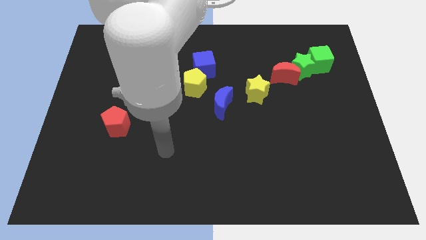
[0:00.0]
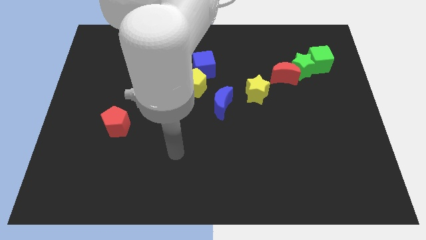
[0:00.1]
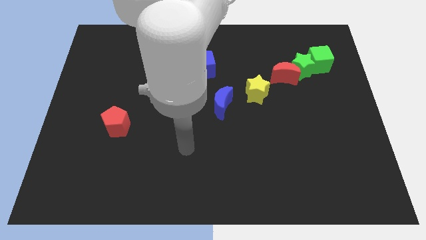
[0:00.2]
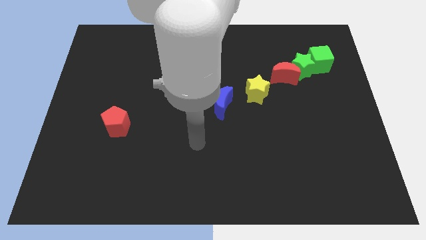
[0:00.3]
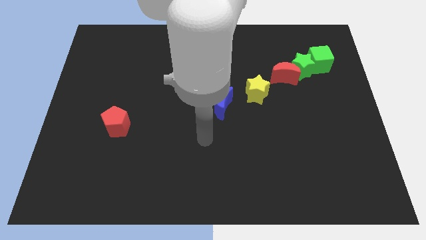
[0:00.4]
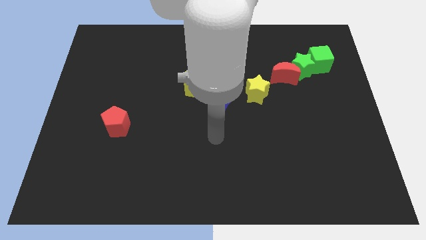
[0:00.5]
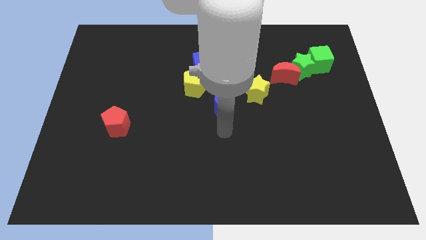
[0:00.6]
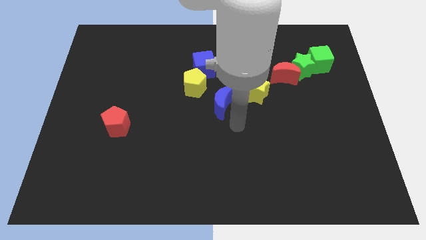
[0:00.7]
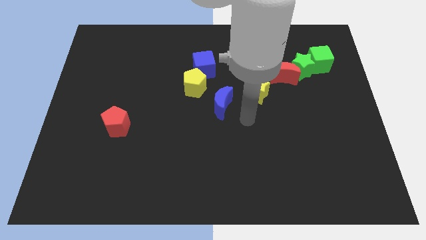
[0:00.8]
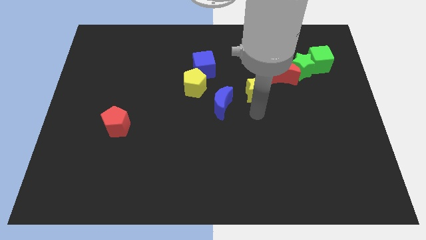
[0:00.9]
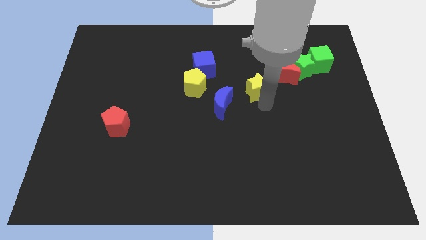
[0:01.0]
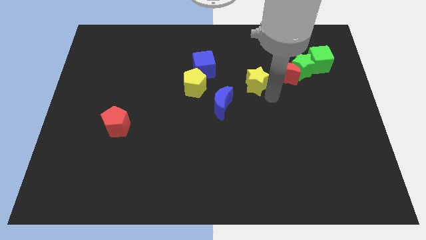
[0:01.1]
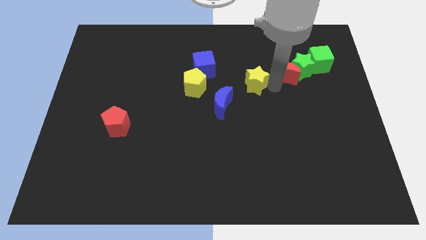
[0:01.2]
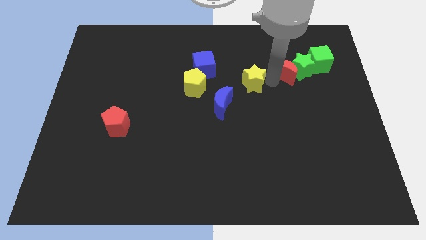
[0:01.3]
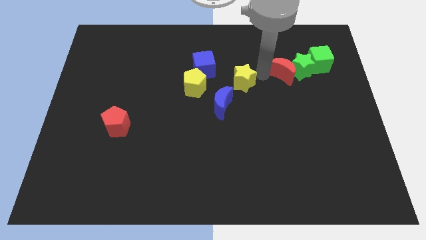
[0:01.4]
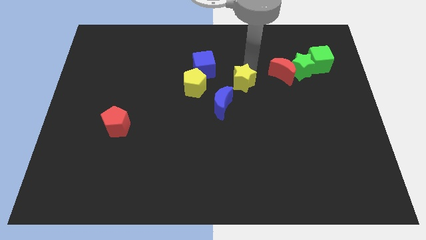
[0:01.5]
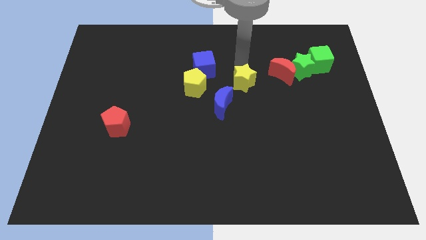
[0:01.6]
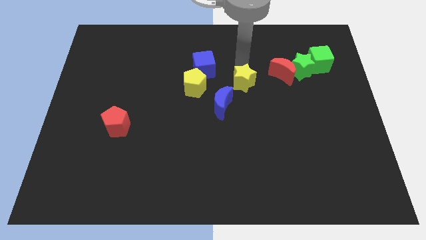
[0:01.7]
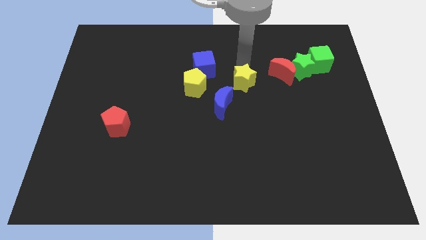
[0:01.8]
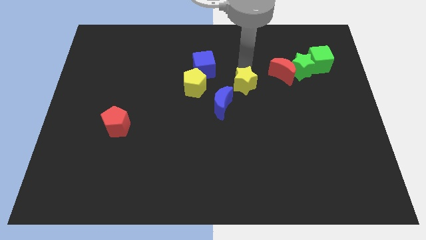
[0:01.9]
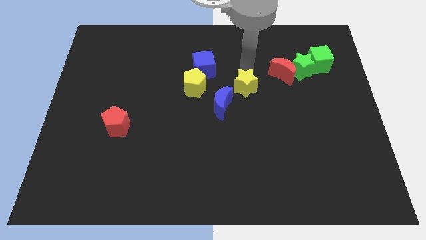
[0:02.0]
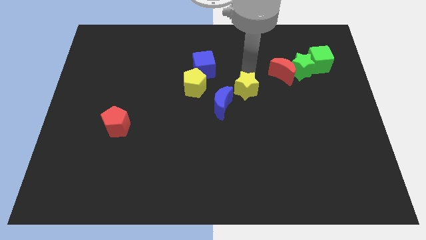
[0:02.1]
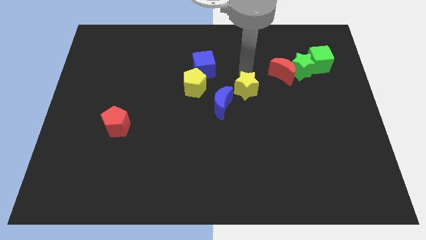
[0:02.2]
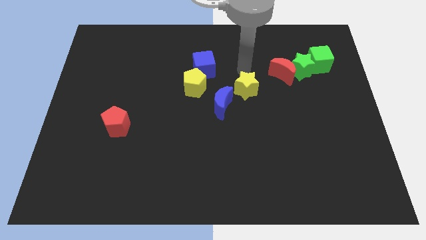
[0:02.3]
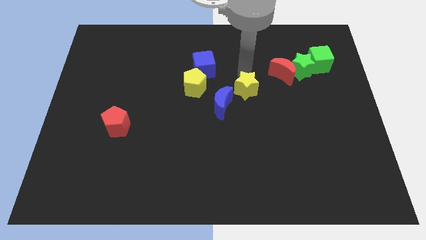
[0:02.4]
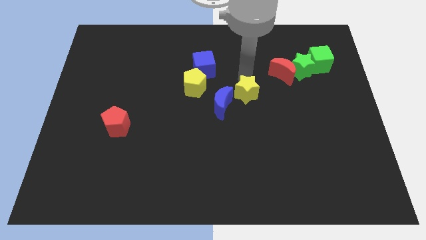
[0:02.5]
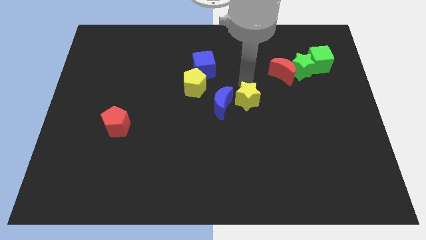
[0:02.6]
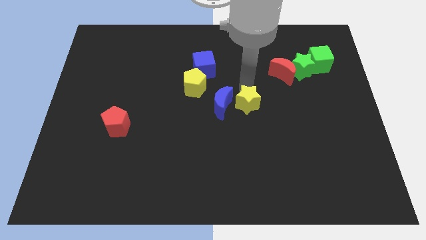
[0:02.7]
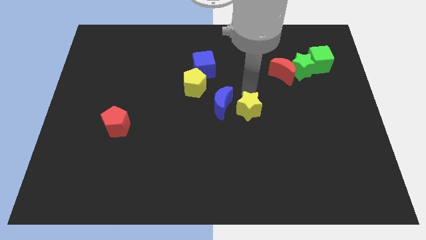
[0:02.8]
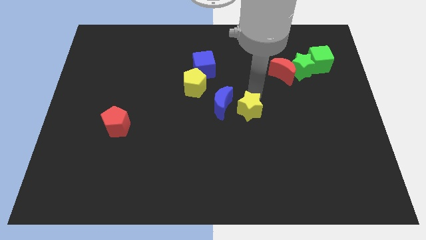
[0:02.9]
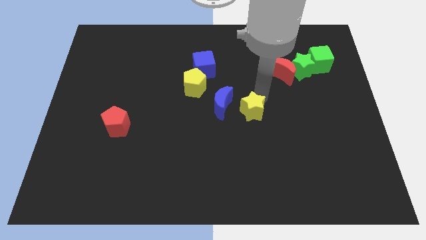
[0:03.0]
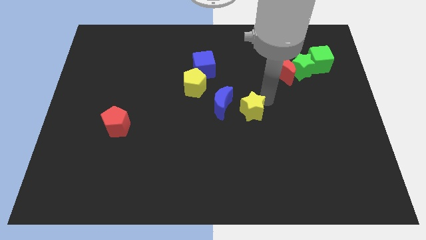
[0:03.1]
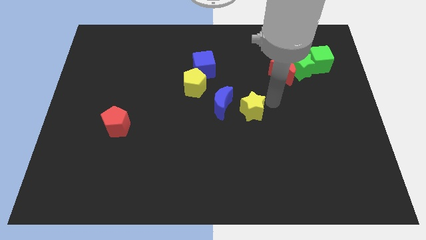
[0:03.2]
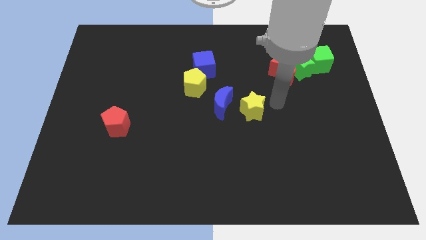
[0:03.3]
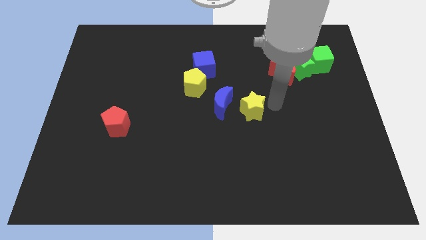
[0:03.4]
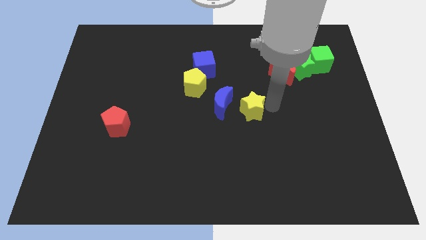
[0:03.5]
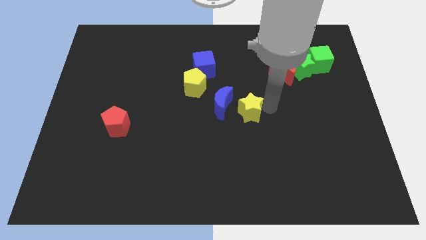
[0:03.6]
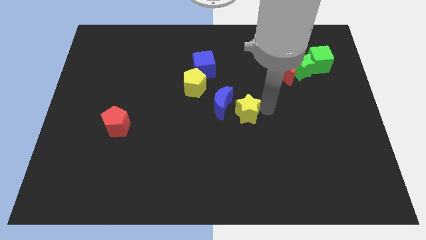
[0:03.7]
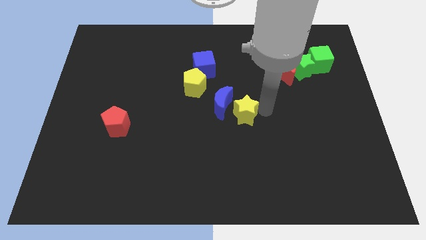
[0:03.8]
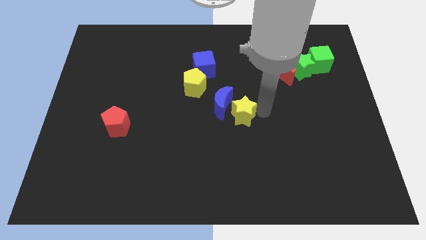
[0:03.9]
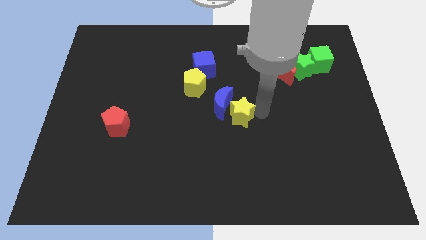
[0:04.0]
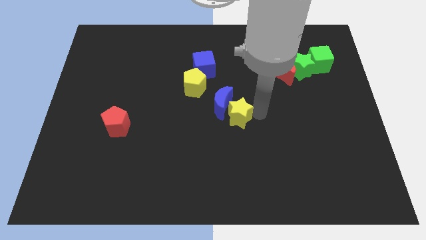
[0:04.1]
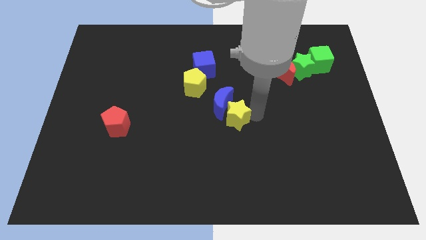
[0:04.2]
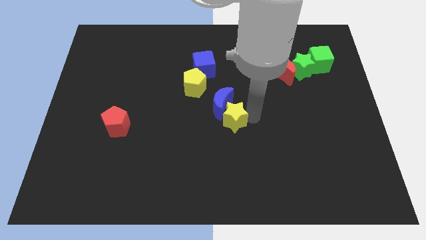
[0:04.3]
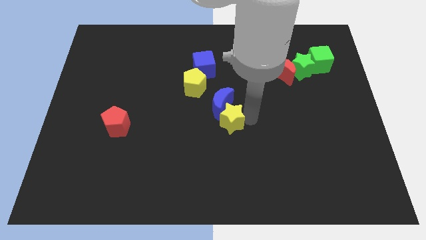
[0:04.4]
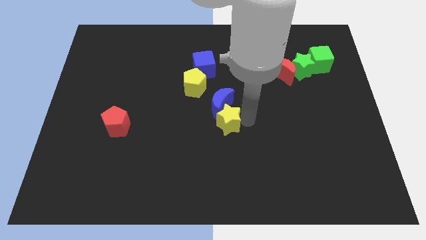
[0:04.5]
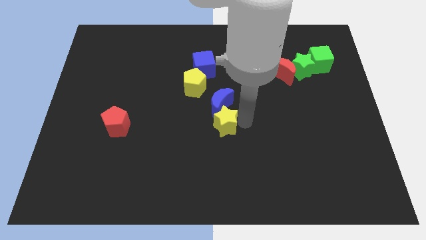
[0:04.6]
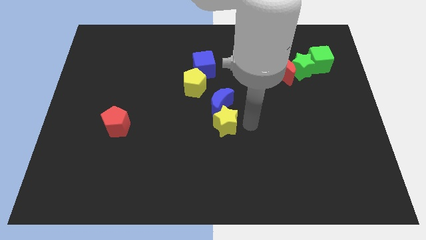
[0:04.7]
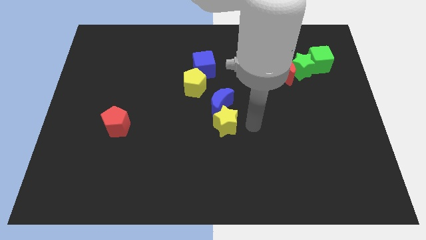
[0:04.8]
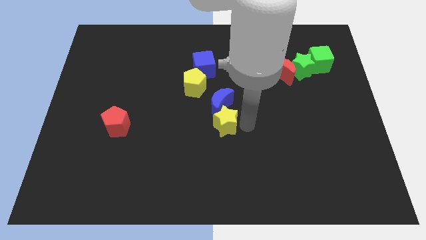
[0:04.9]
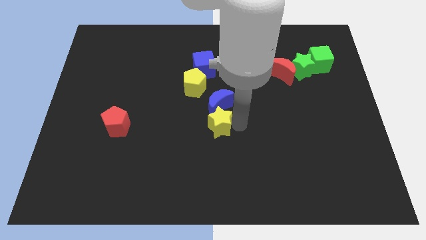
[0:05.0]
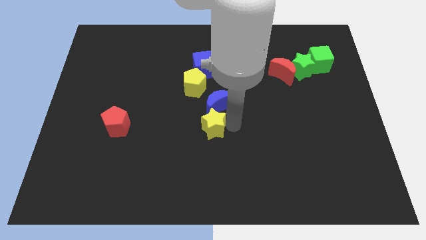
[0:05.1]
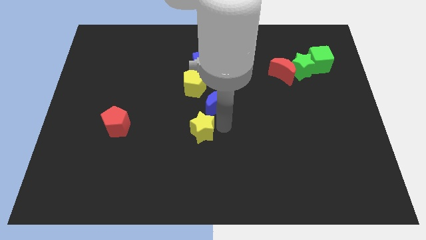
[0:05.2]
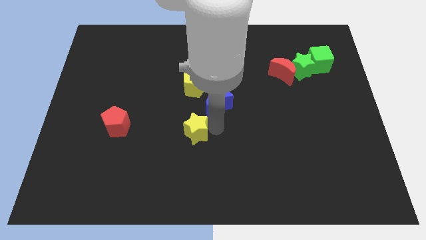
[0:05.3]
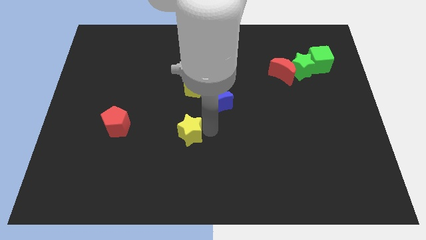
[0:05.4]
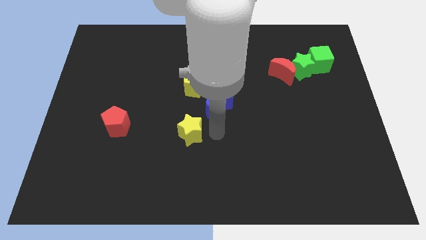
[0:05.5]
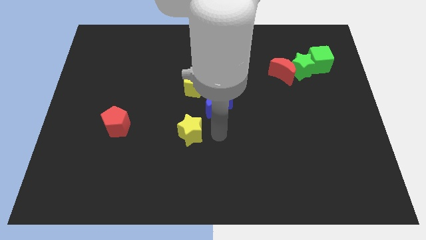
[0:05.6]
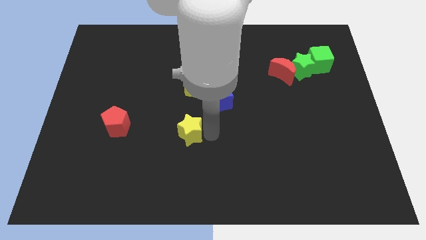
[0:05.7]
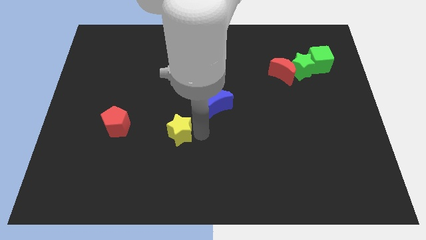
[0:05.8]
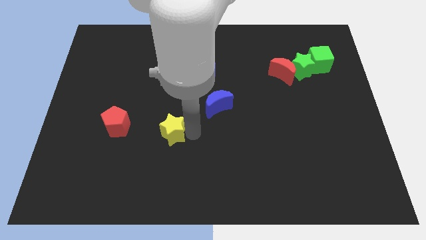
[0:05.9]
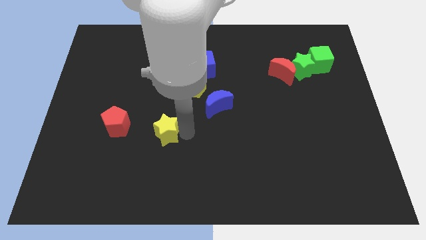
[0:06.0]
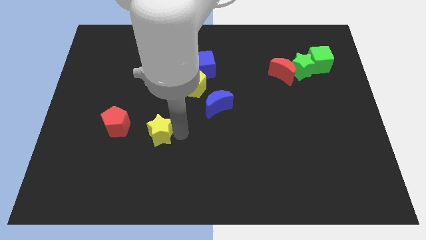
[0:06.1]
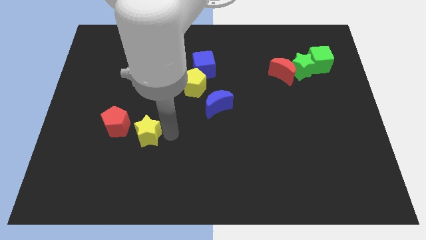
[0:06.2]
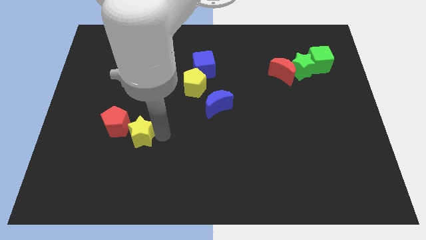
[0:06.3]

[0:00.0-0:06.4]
move the yellow star close to the red pentagon

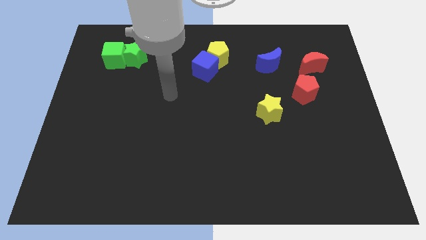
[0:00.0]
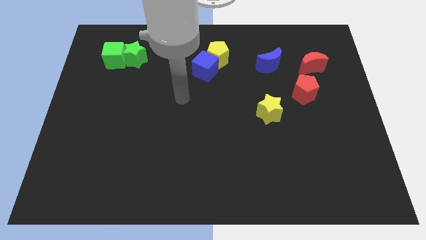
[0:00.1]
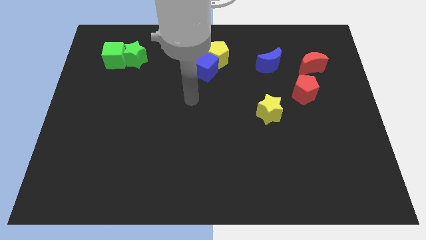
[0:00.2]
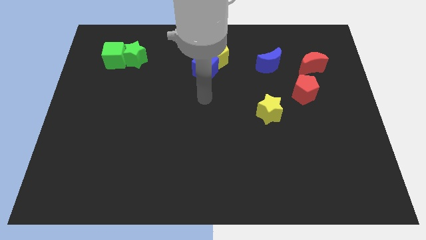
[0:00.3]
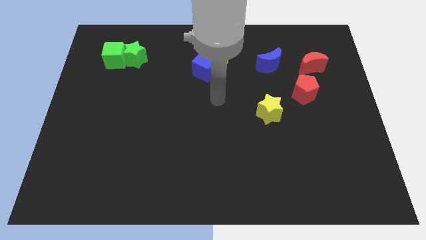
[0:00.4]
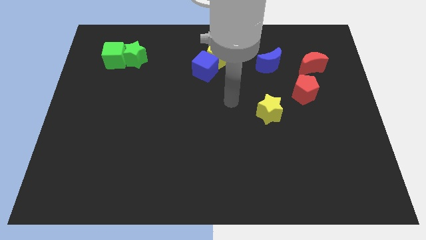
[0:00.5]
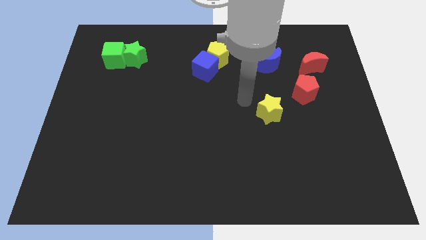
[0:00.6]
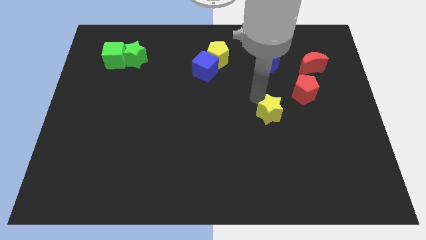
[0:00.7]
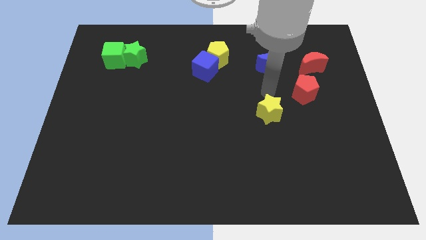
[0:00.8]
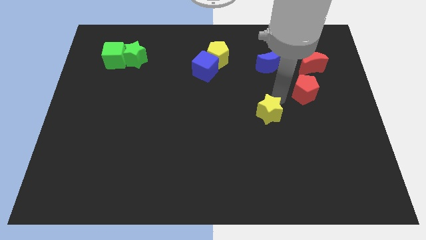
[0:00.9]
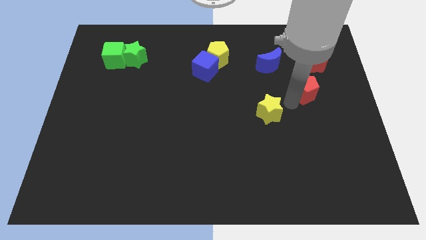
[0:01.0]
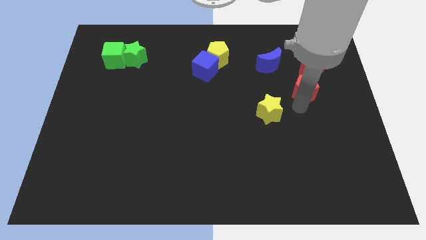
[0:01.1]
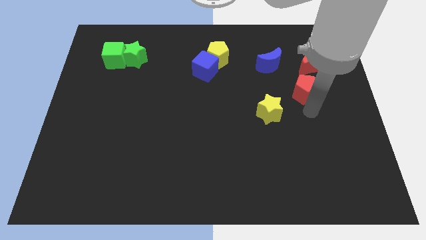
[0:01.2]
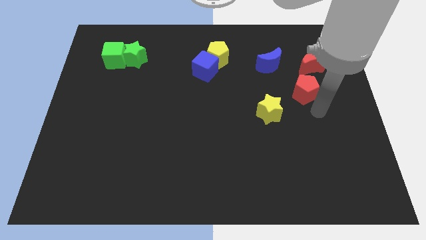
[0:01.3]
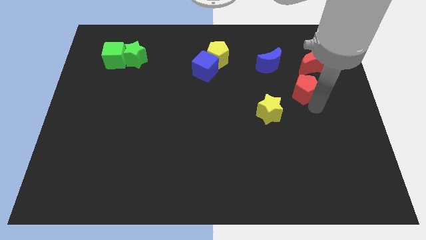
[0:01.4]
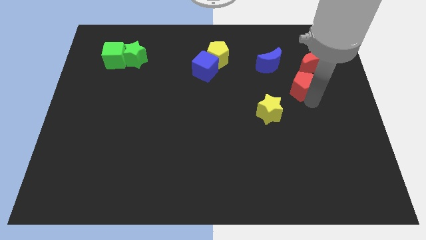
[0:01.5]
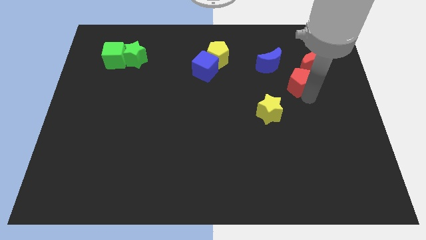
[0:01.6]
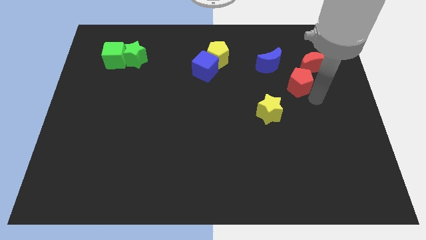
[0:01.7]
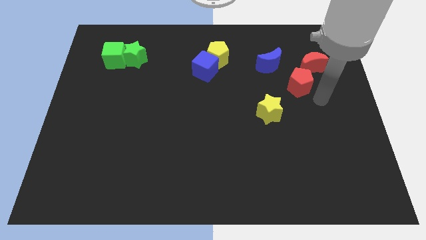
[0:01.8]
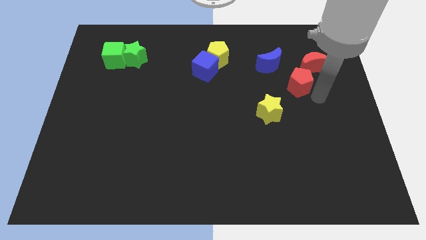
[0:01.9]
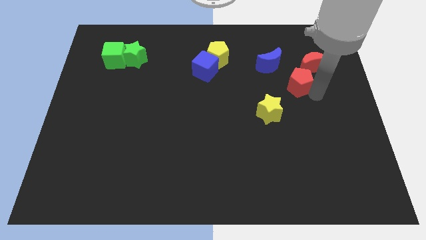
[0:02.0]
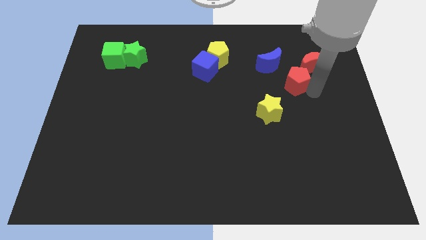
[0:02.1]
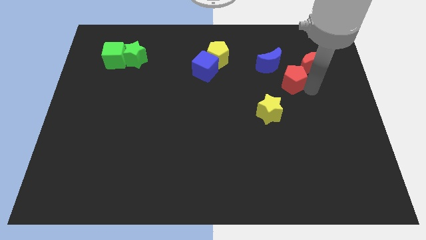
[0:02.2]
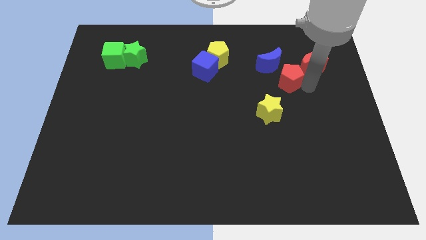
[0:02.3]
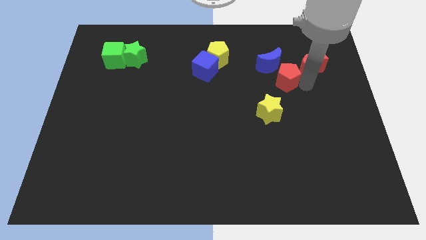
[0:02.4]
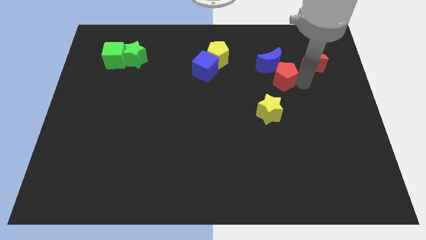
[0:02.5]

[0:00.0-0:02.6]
slide the red pentagon next to the blue moon
